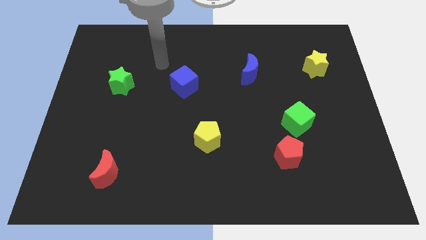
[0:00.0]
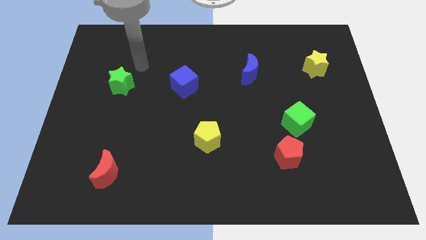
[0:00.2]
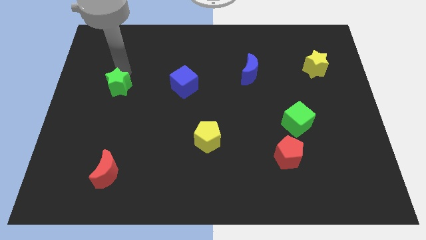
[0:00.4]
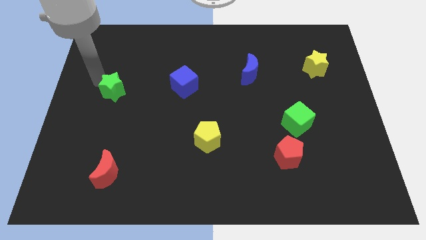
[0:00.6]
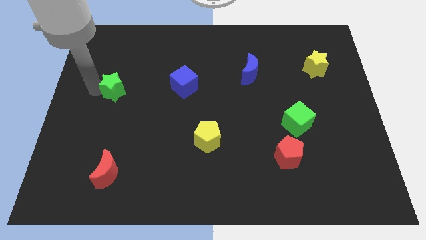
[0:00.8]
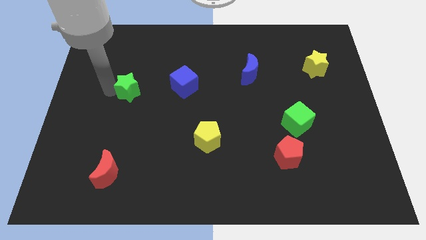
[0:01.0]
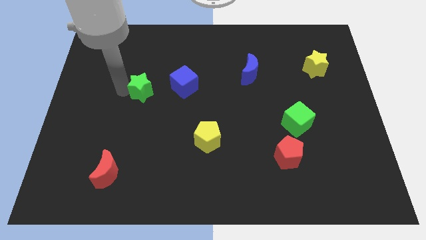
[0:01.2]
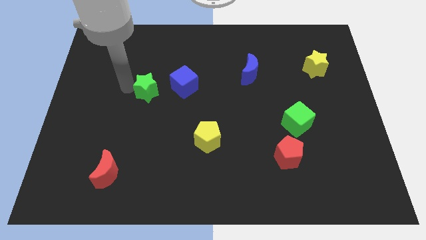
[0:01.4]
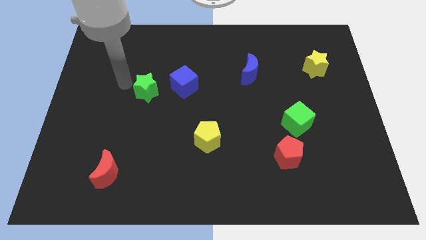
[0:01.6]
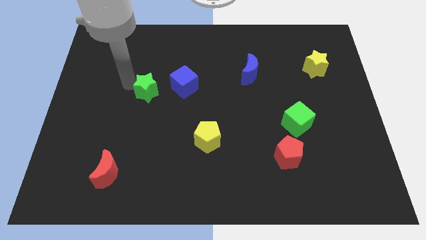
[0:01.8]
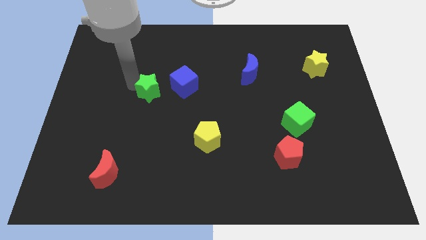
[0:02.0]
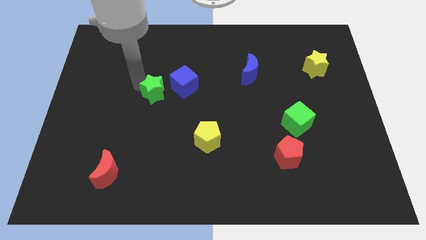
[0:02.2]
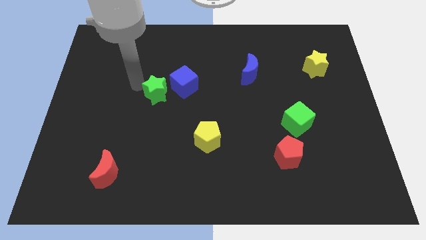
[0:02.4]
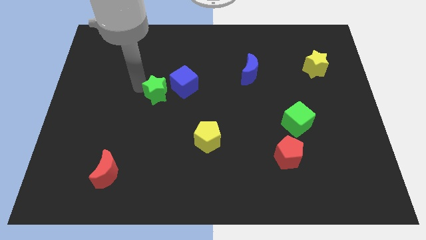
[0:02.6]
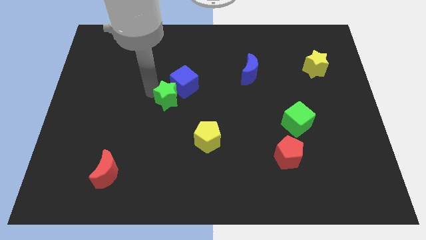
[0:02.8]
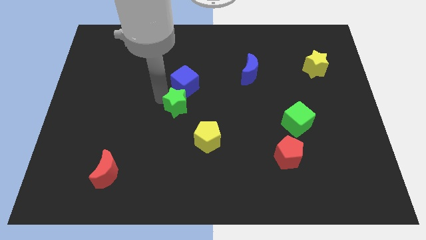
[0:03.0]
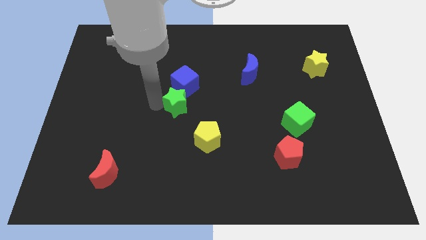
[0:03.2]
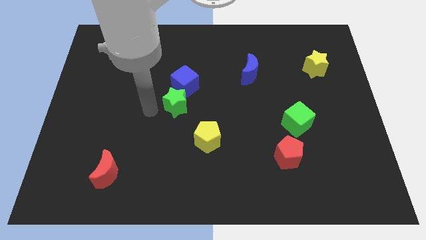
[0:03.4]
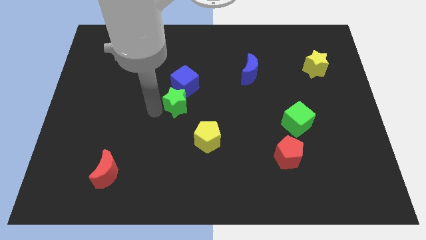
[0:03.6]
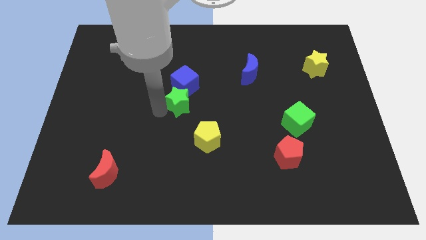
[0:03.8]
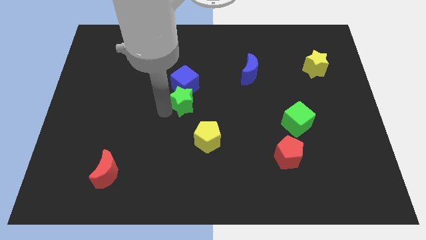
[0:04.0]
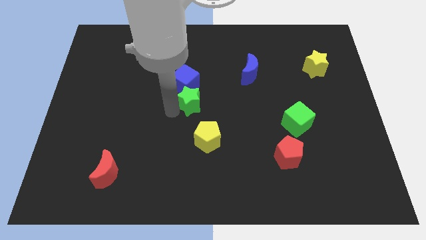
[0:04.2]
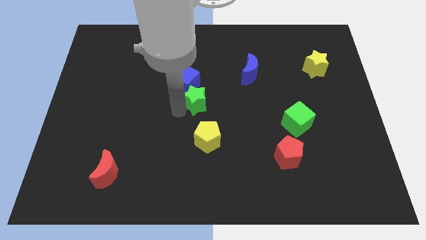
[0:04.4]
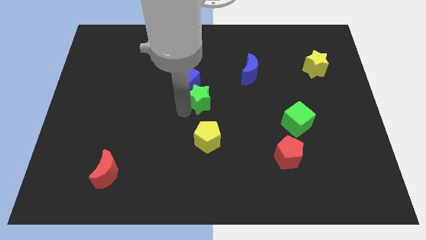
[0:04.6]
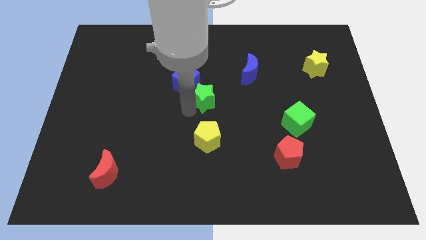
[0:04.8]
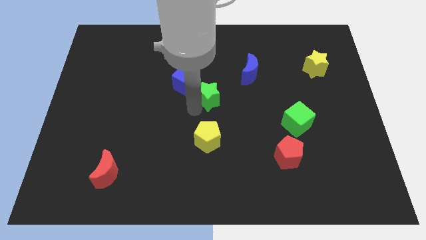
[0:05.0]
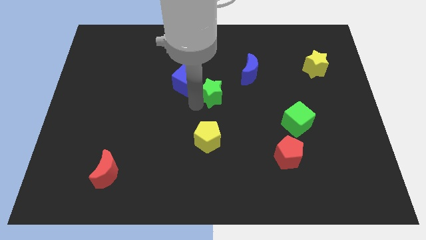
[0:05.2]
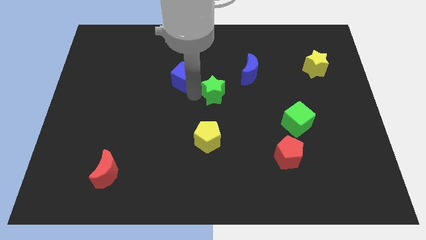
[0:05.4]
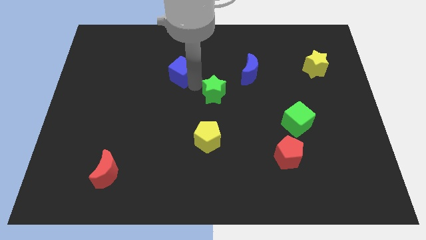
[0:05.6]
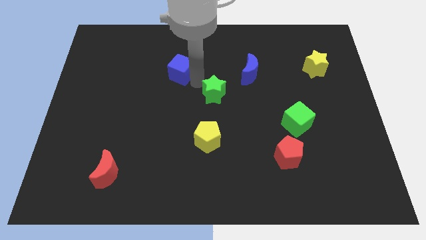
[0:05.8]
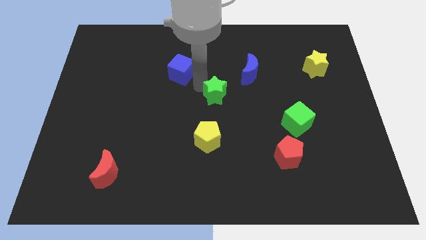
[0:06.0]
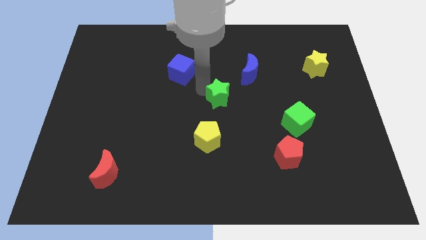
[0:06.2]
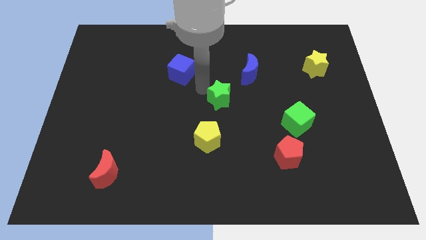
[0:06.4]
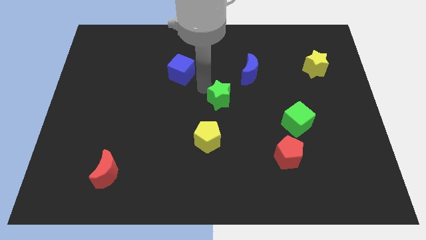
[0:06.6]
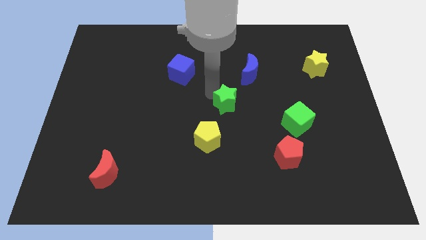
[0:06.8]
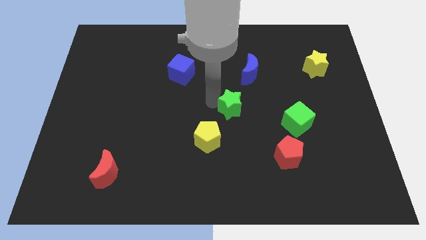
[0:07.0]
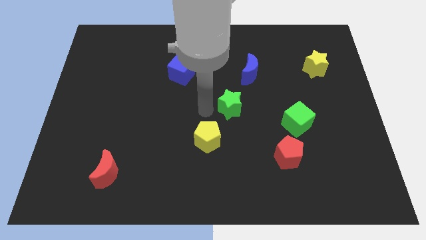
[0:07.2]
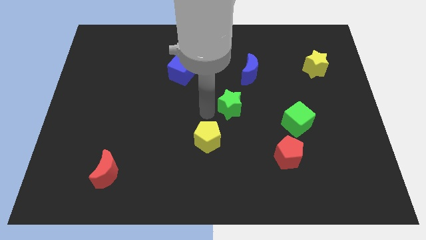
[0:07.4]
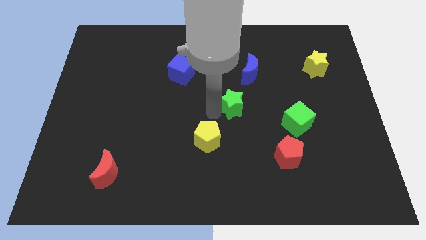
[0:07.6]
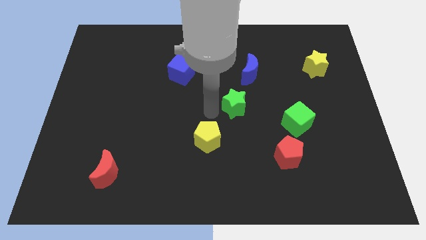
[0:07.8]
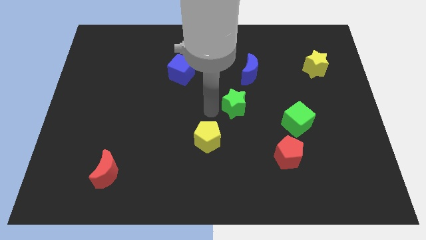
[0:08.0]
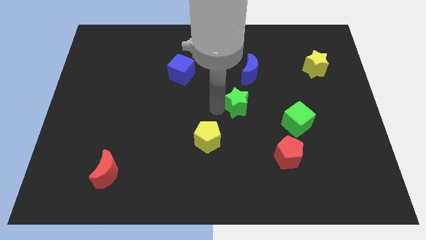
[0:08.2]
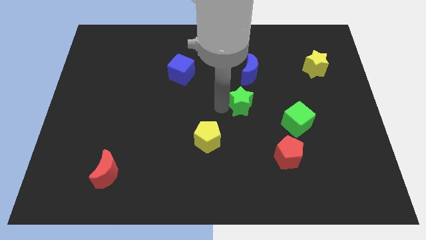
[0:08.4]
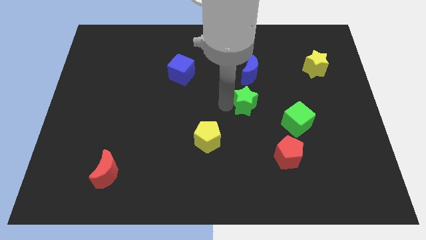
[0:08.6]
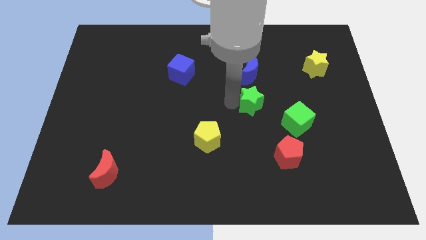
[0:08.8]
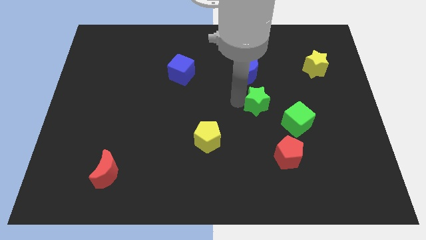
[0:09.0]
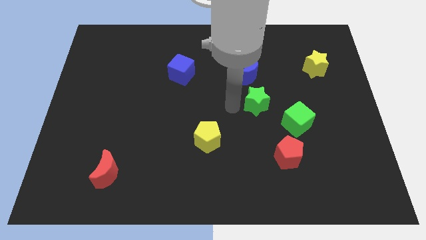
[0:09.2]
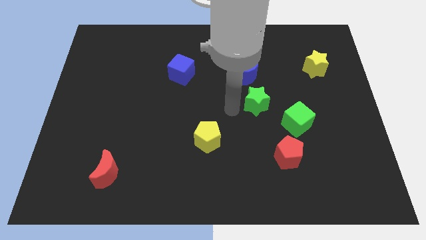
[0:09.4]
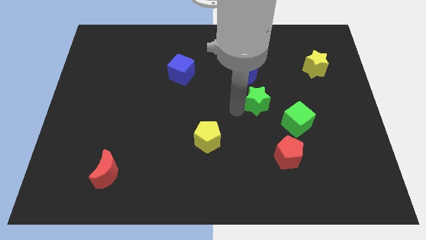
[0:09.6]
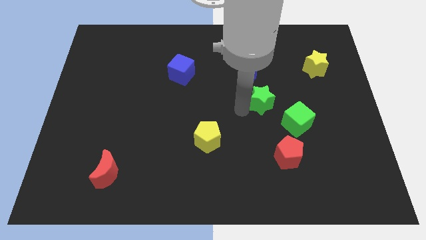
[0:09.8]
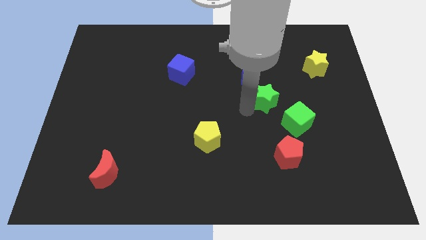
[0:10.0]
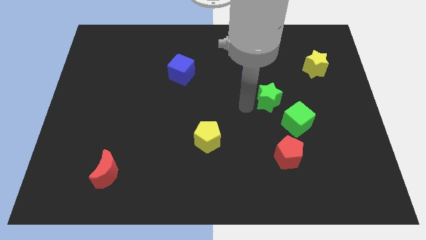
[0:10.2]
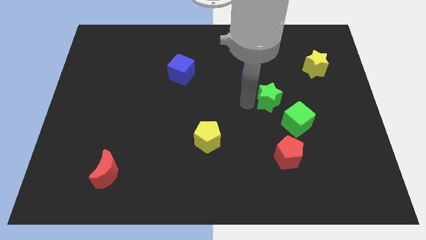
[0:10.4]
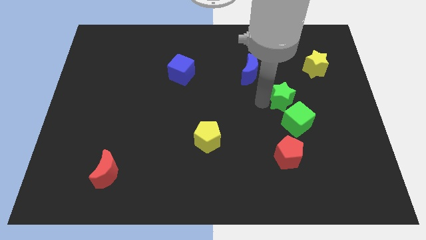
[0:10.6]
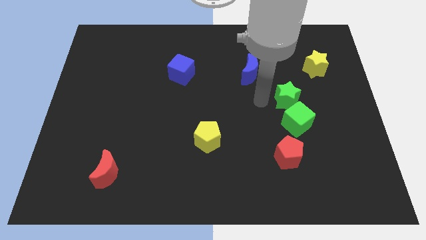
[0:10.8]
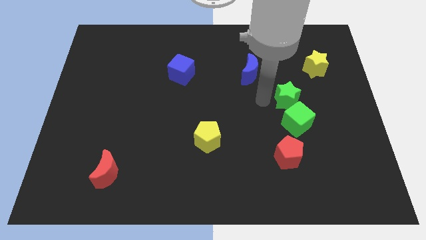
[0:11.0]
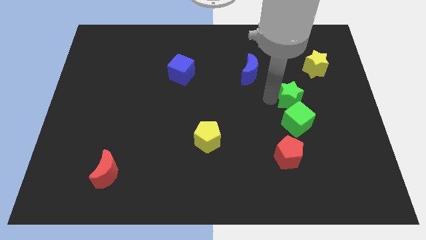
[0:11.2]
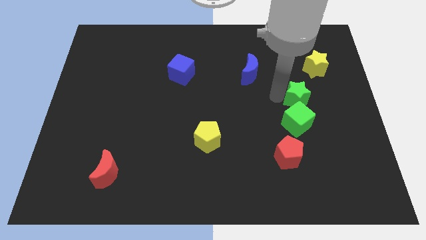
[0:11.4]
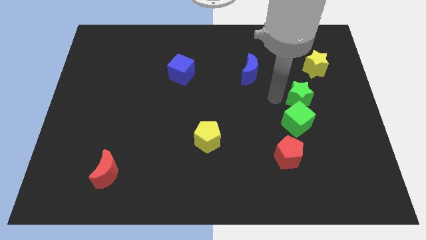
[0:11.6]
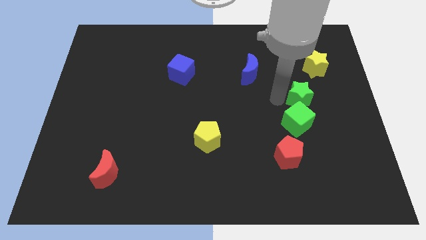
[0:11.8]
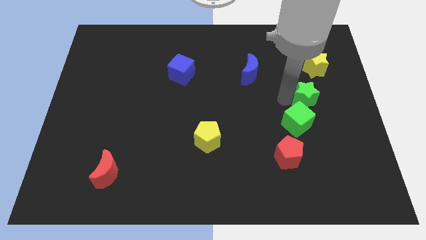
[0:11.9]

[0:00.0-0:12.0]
put the green star to the bottom side of the yellow star

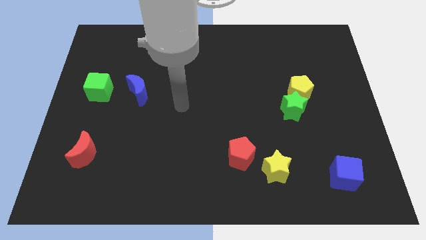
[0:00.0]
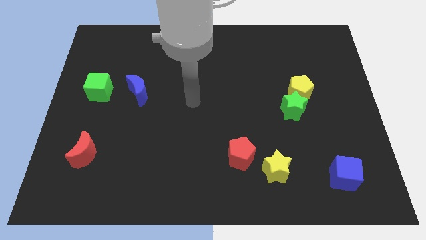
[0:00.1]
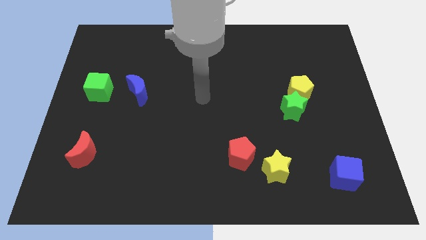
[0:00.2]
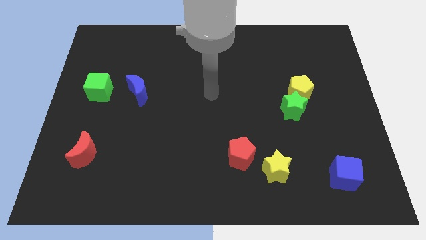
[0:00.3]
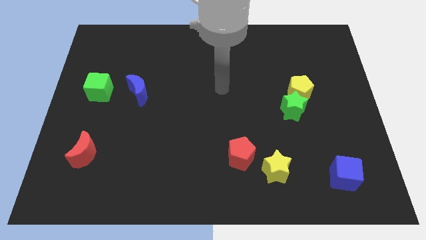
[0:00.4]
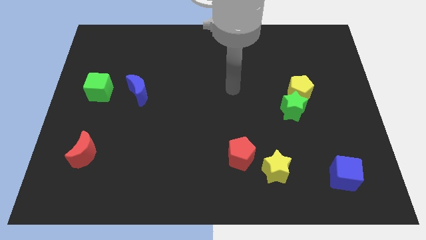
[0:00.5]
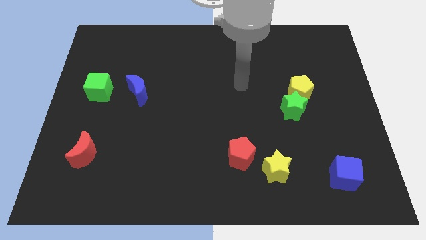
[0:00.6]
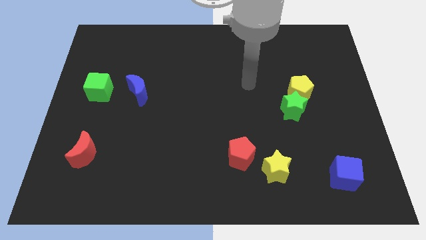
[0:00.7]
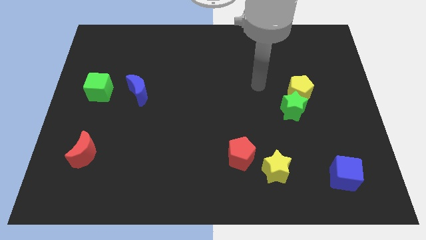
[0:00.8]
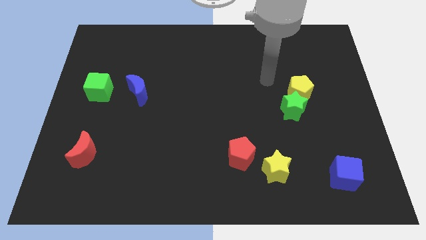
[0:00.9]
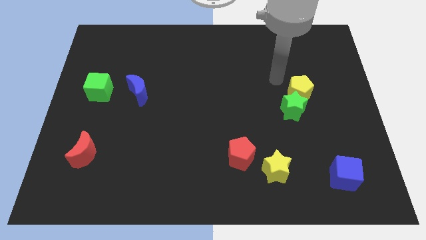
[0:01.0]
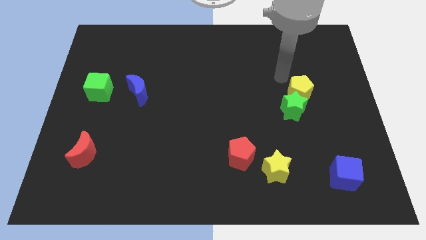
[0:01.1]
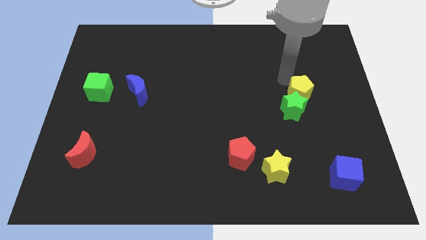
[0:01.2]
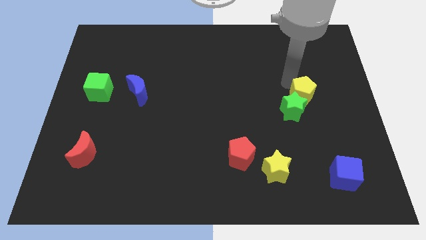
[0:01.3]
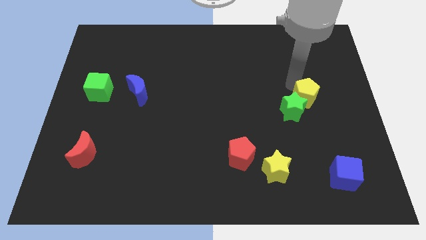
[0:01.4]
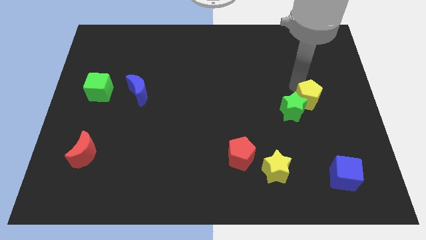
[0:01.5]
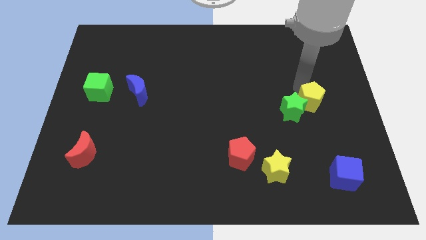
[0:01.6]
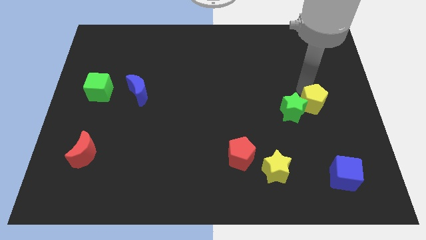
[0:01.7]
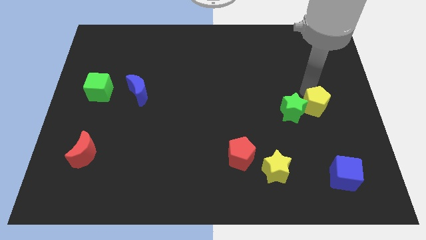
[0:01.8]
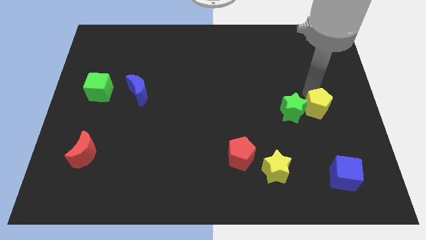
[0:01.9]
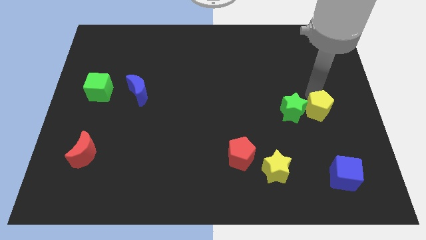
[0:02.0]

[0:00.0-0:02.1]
slide the yellow pentagon diagonally down and to the right of the green star
